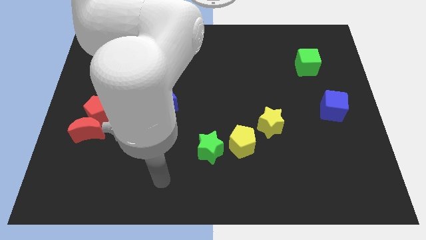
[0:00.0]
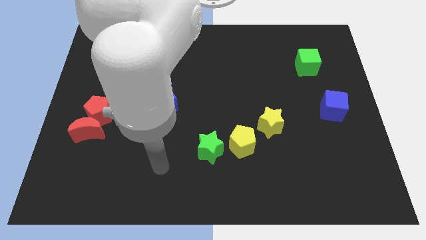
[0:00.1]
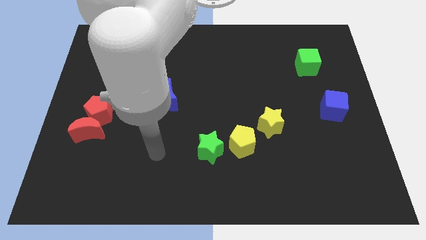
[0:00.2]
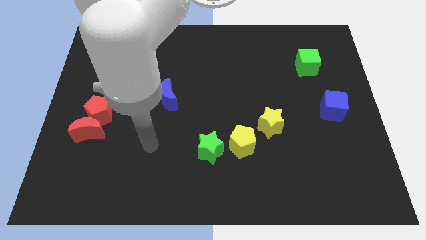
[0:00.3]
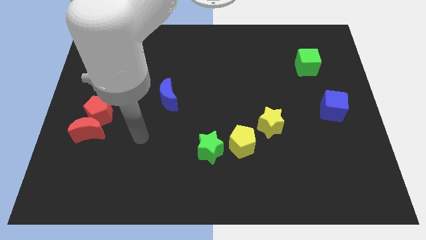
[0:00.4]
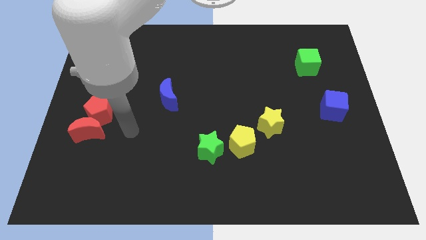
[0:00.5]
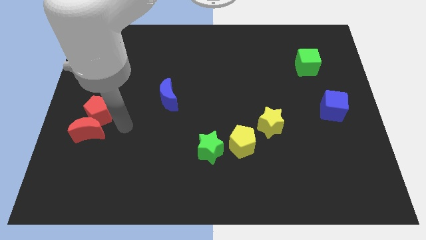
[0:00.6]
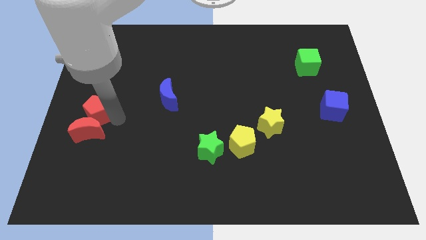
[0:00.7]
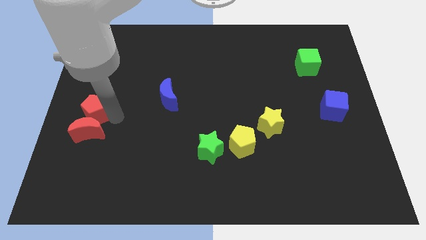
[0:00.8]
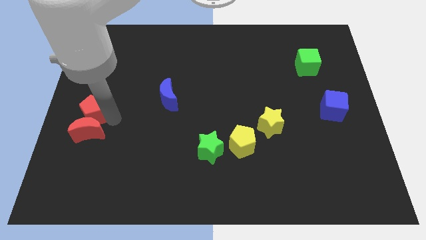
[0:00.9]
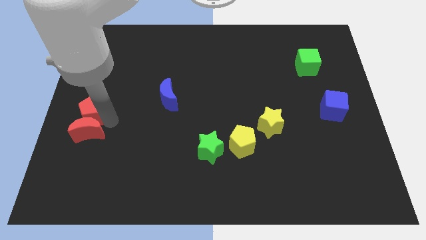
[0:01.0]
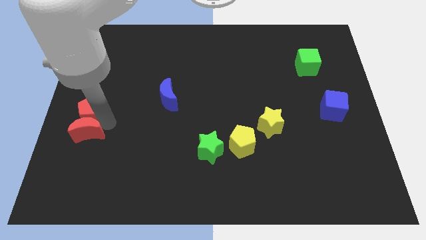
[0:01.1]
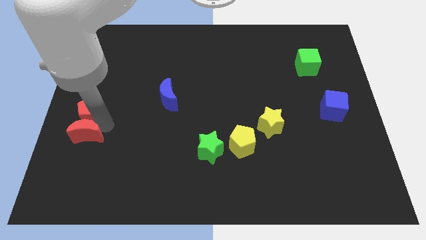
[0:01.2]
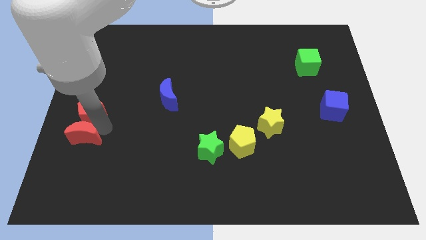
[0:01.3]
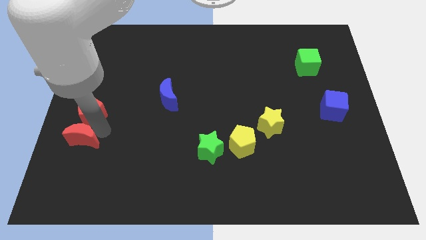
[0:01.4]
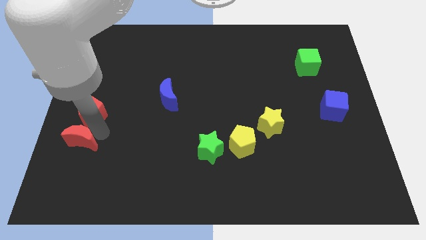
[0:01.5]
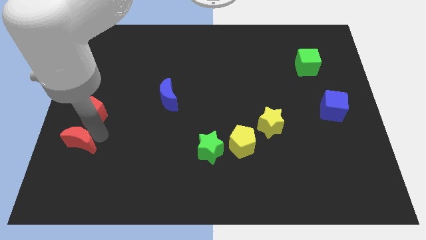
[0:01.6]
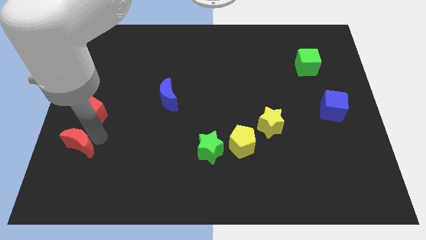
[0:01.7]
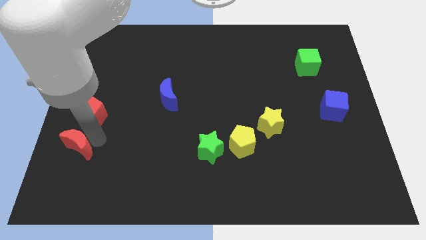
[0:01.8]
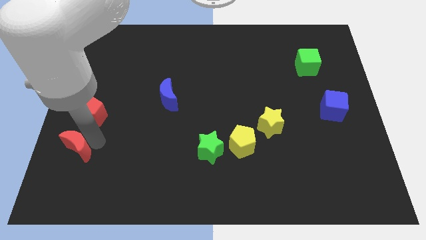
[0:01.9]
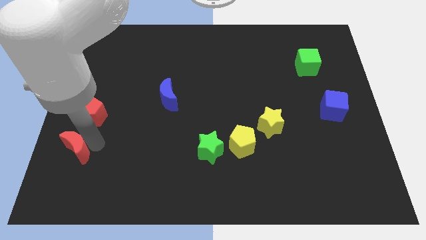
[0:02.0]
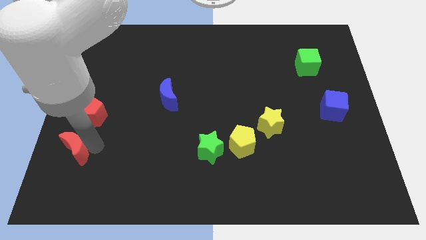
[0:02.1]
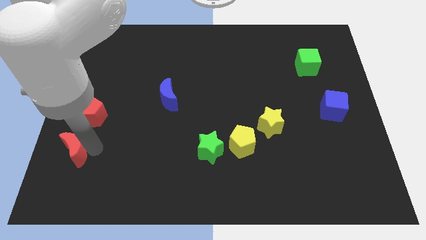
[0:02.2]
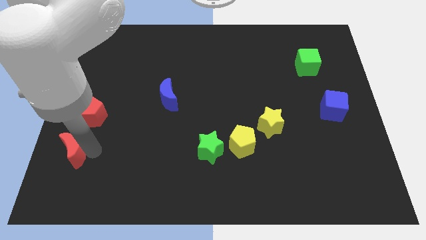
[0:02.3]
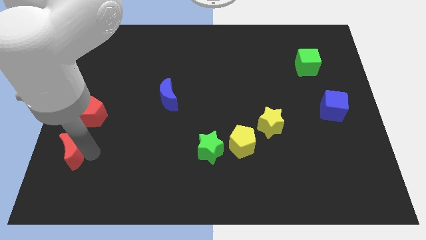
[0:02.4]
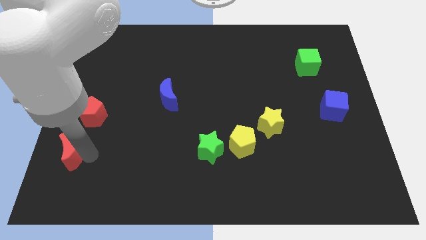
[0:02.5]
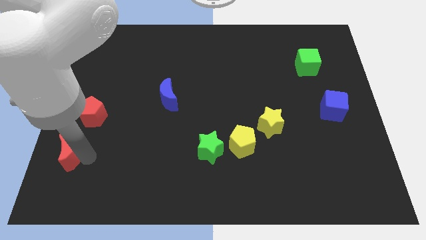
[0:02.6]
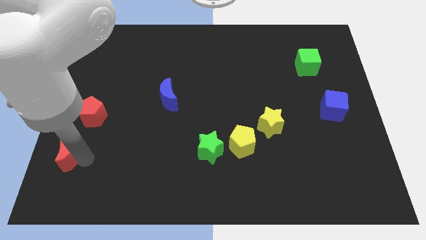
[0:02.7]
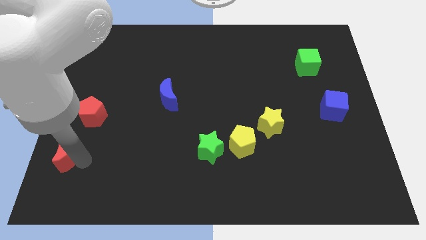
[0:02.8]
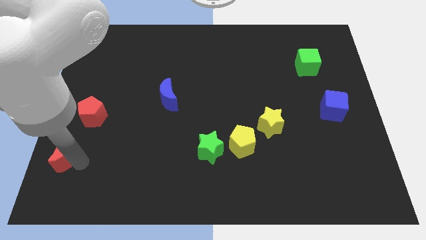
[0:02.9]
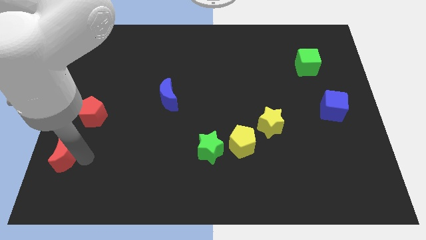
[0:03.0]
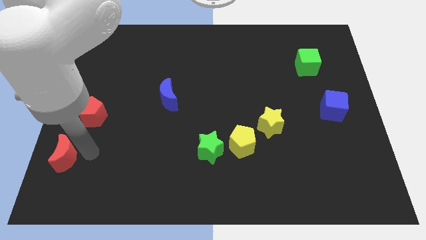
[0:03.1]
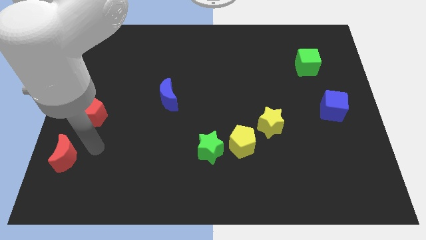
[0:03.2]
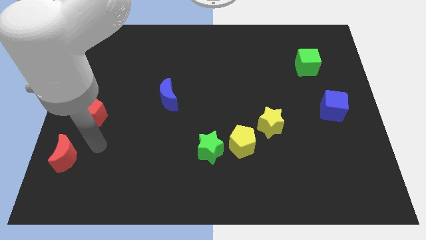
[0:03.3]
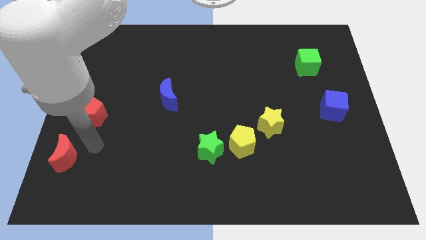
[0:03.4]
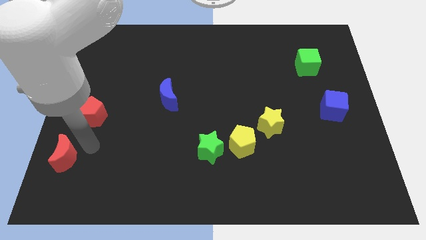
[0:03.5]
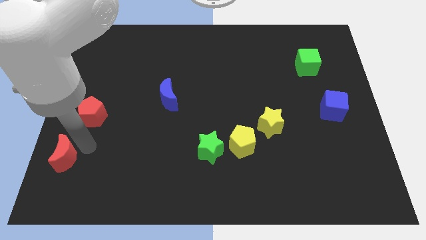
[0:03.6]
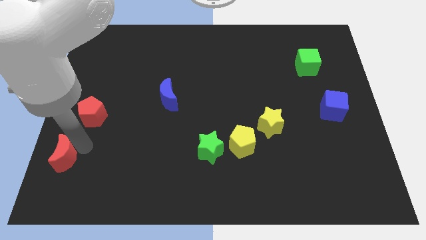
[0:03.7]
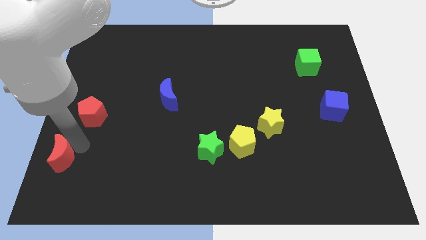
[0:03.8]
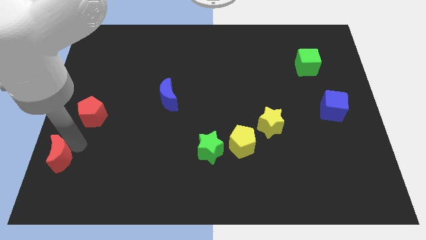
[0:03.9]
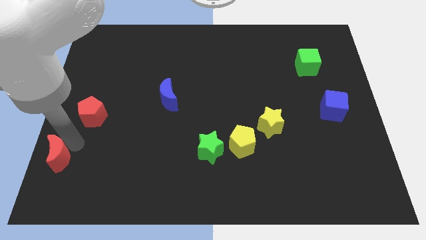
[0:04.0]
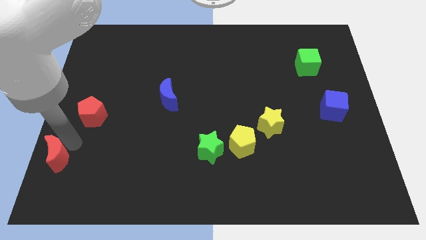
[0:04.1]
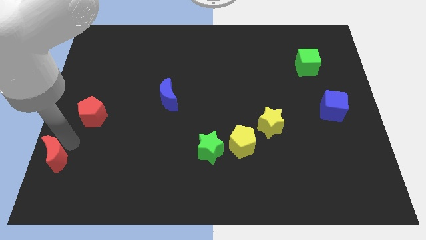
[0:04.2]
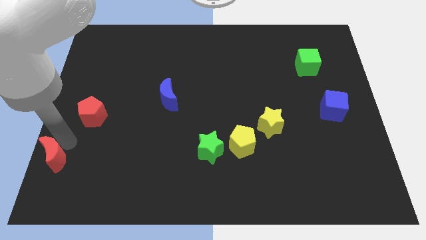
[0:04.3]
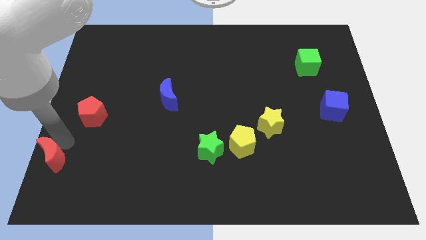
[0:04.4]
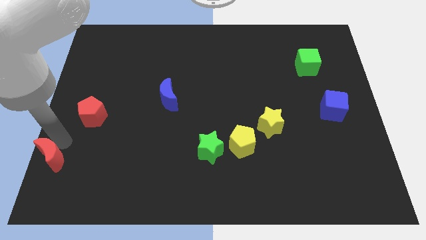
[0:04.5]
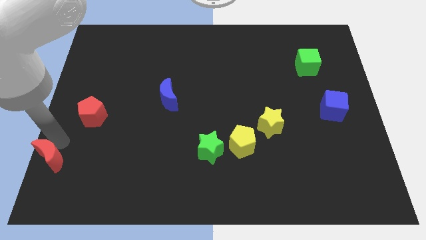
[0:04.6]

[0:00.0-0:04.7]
move the red moon to the bottom left of the board

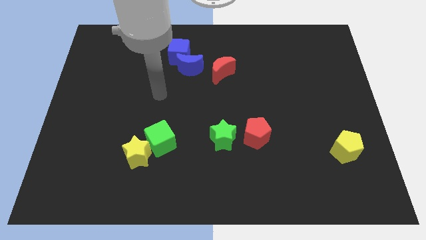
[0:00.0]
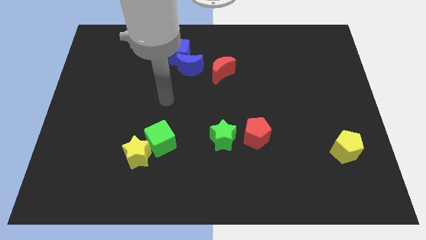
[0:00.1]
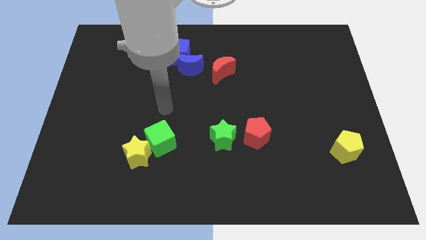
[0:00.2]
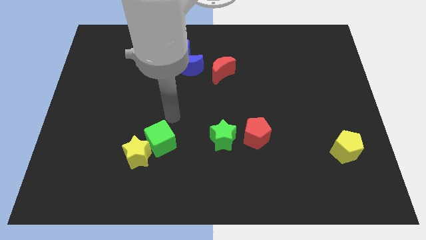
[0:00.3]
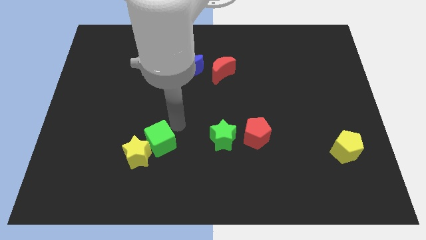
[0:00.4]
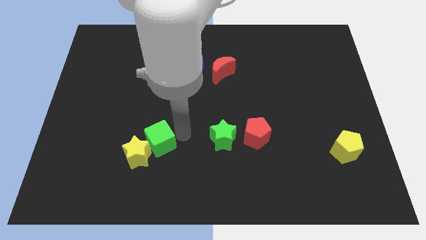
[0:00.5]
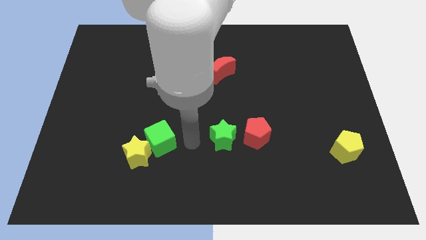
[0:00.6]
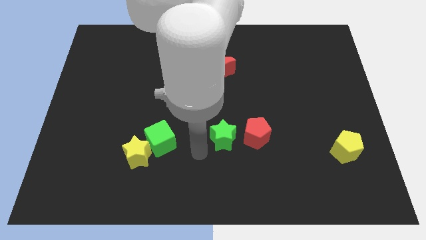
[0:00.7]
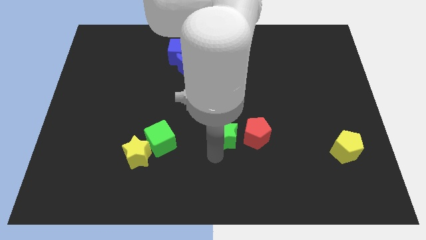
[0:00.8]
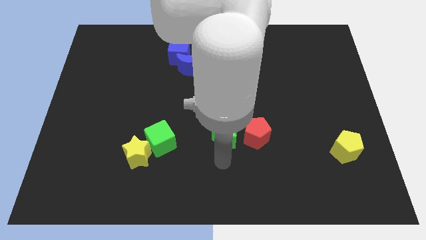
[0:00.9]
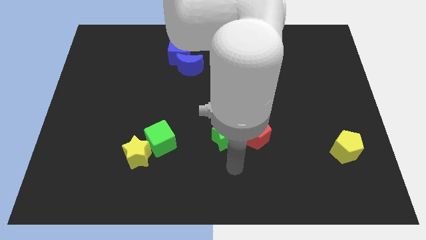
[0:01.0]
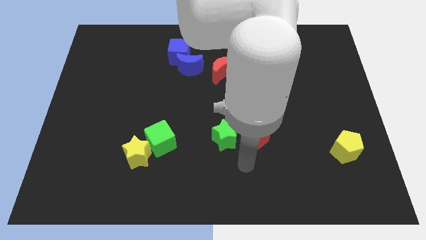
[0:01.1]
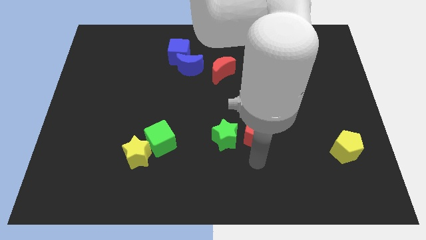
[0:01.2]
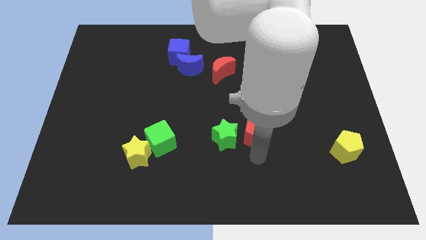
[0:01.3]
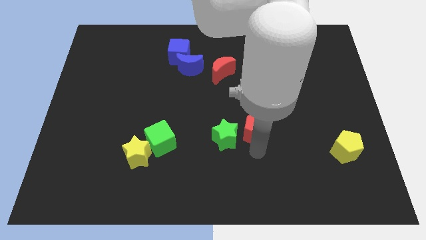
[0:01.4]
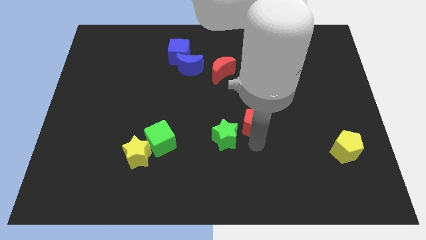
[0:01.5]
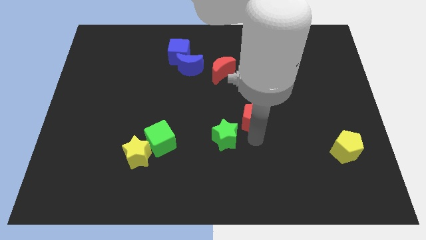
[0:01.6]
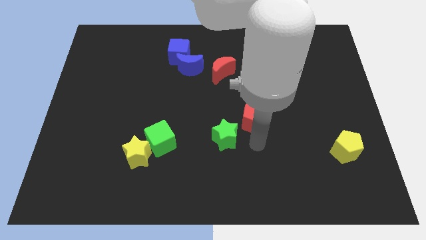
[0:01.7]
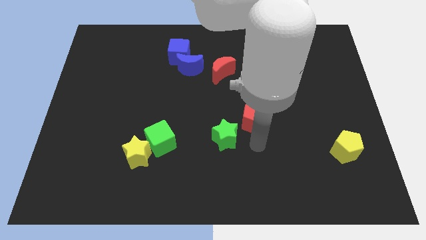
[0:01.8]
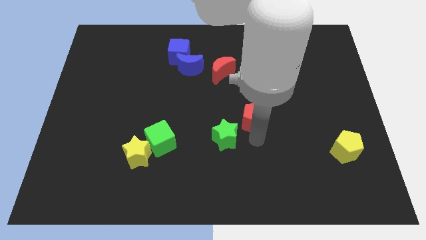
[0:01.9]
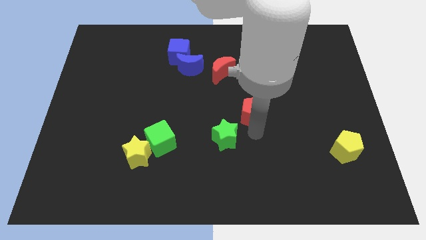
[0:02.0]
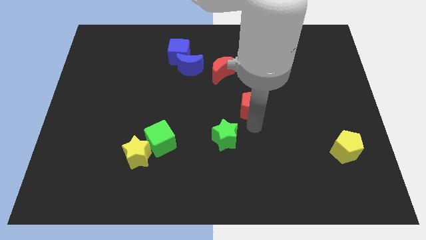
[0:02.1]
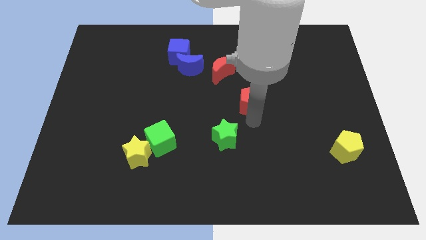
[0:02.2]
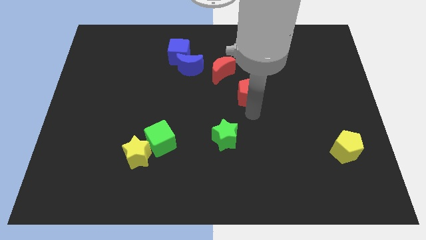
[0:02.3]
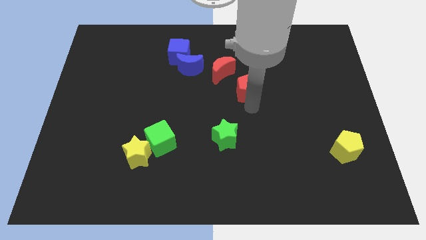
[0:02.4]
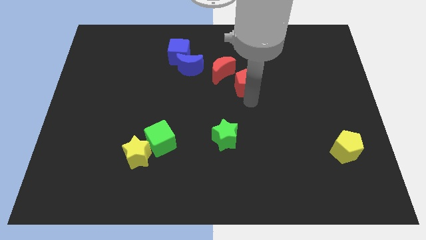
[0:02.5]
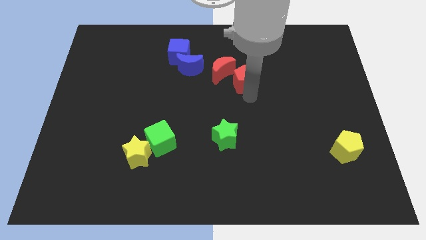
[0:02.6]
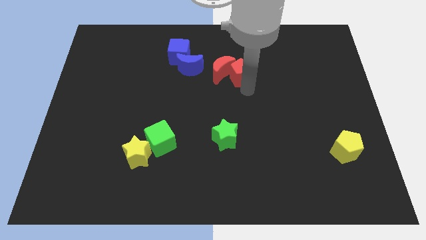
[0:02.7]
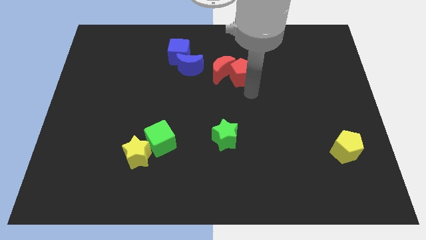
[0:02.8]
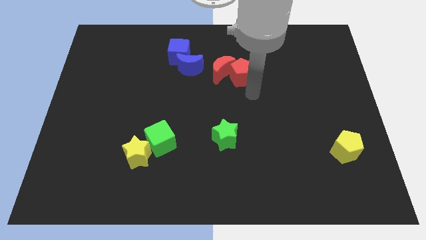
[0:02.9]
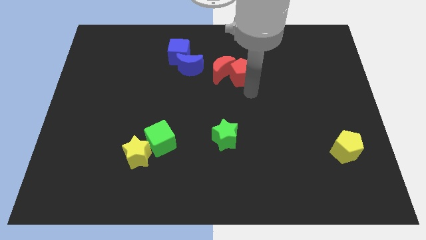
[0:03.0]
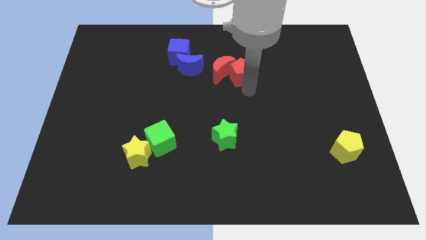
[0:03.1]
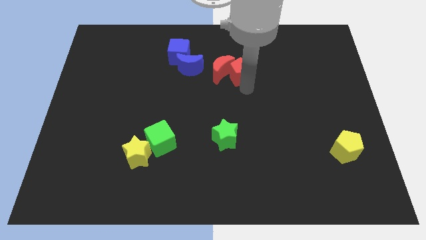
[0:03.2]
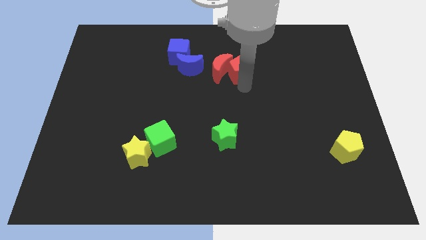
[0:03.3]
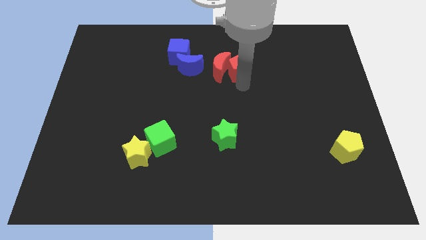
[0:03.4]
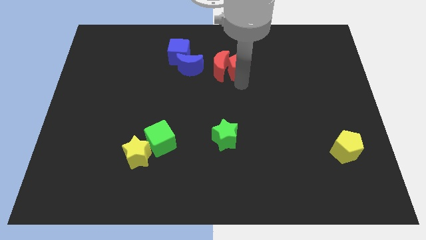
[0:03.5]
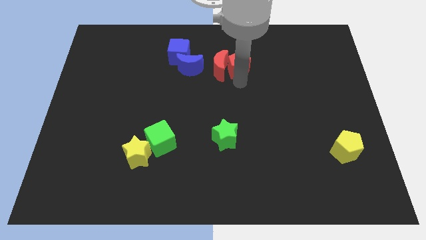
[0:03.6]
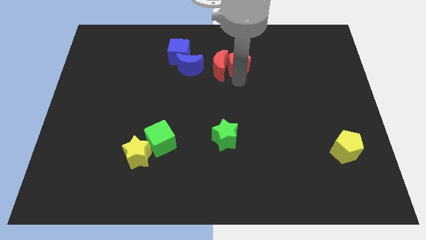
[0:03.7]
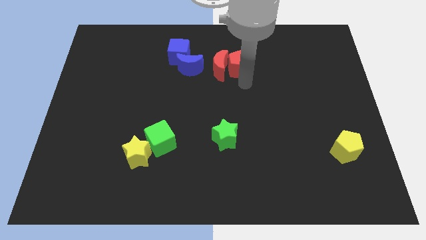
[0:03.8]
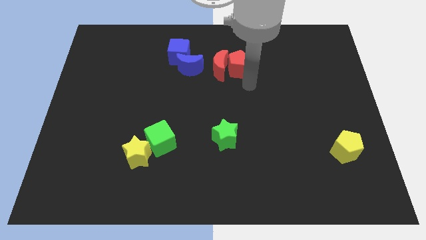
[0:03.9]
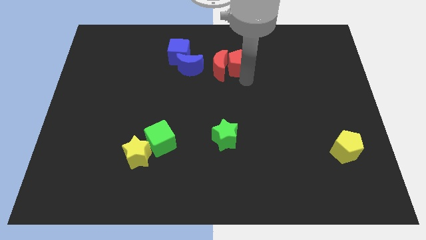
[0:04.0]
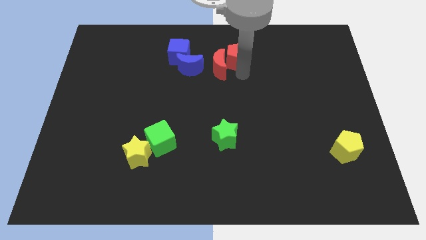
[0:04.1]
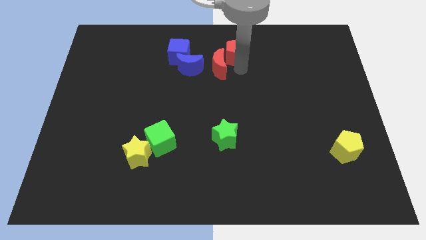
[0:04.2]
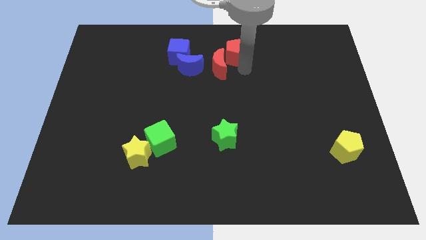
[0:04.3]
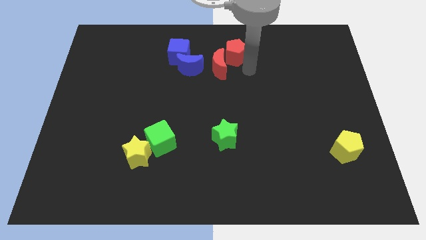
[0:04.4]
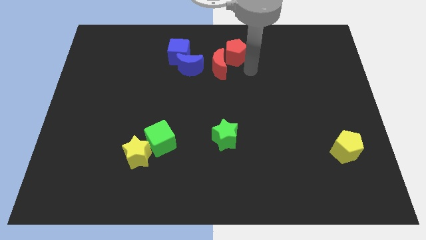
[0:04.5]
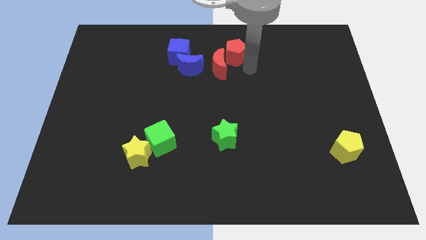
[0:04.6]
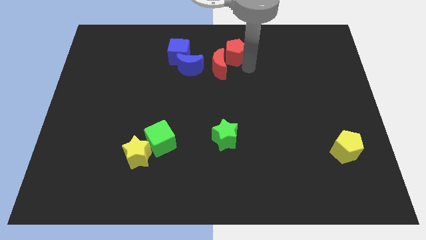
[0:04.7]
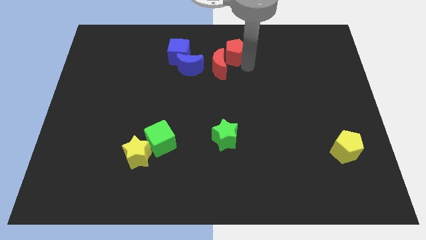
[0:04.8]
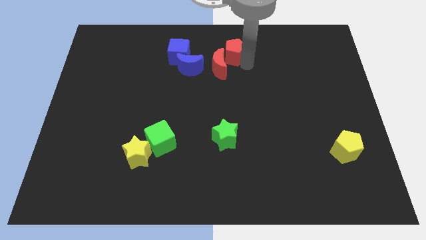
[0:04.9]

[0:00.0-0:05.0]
put the red pentagon to the towards your base
